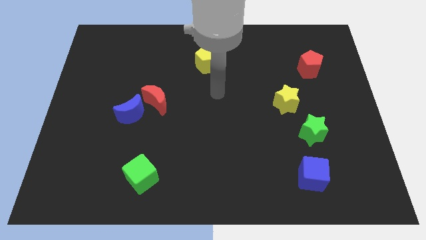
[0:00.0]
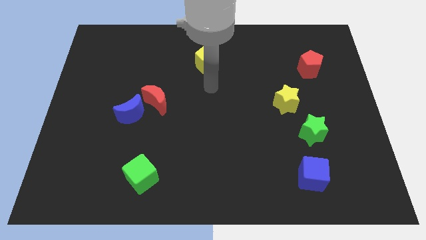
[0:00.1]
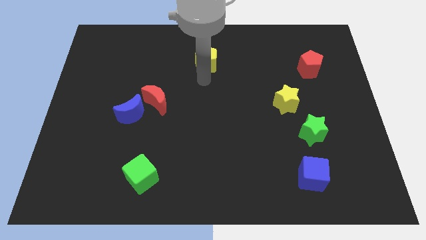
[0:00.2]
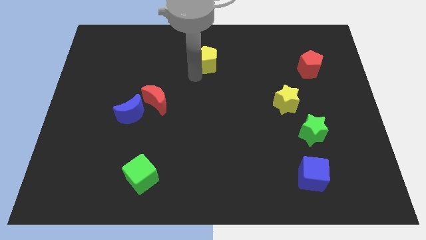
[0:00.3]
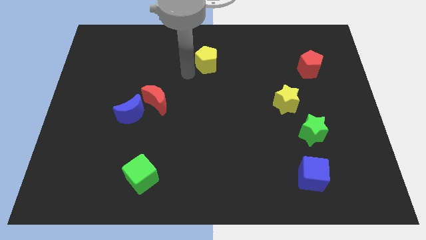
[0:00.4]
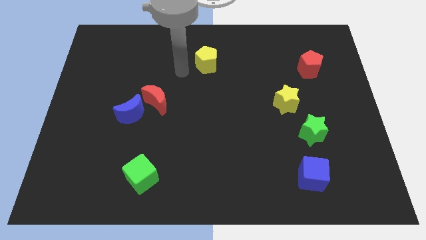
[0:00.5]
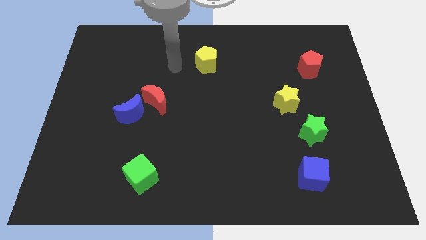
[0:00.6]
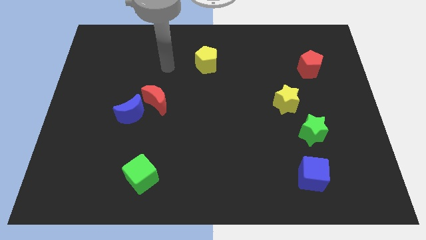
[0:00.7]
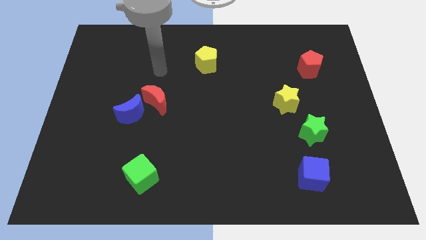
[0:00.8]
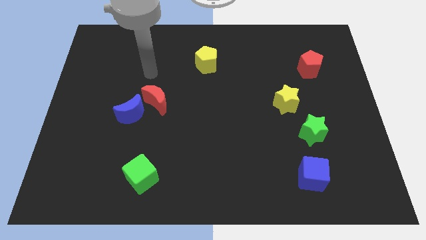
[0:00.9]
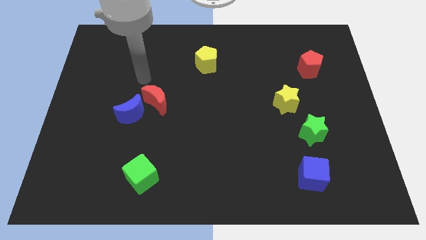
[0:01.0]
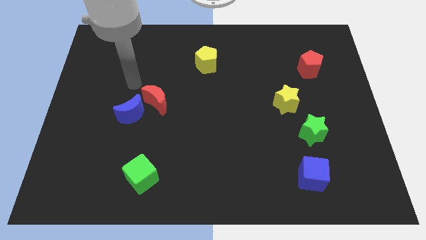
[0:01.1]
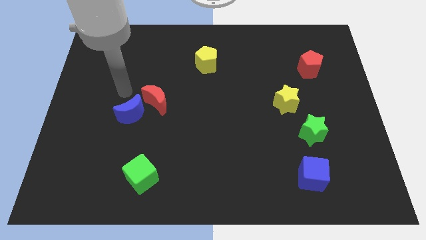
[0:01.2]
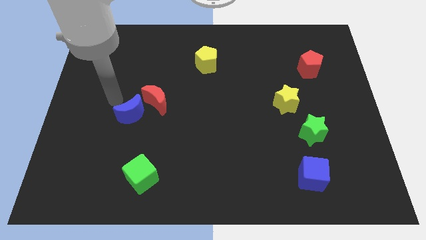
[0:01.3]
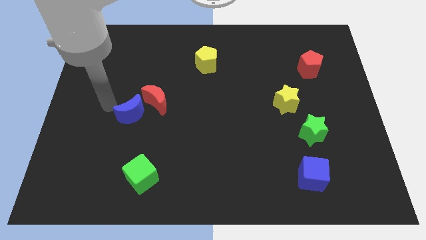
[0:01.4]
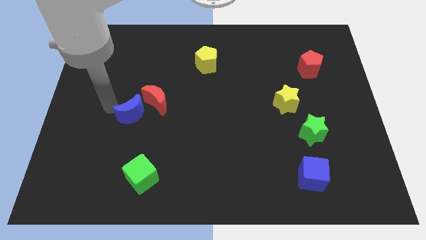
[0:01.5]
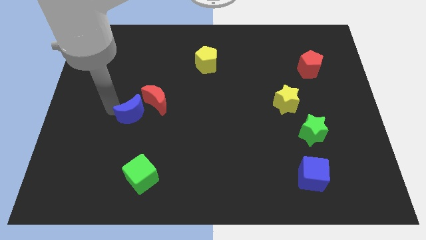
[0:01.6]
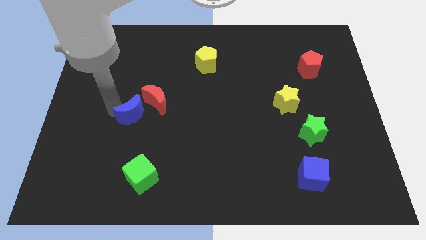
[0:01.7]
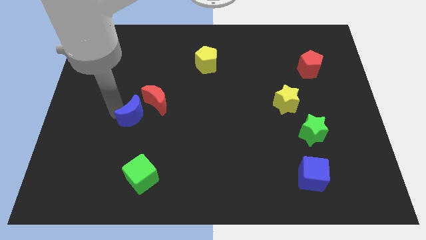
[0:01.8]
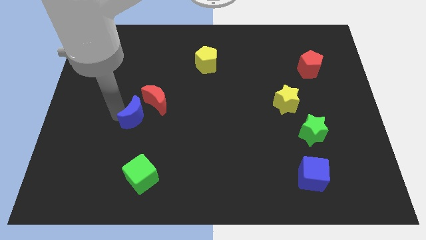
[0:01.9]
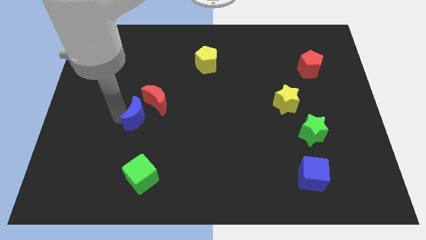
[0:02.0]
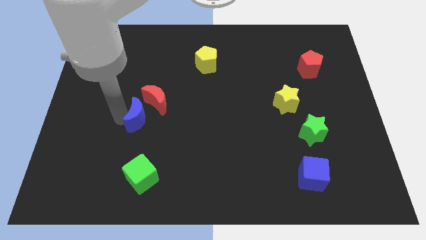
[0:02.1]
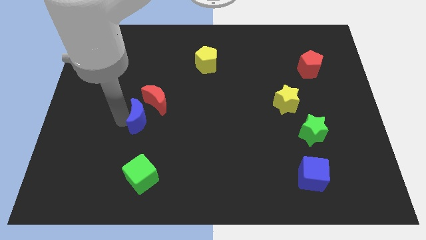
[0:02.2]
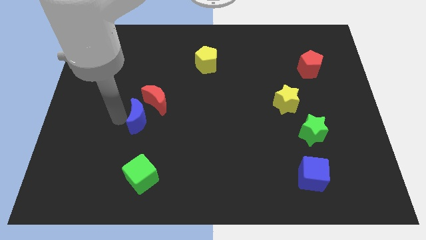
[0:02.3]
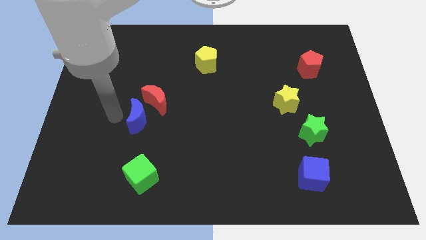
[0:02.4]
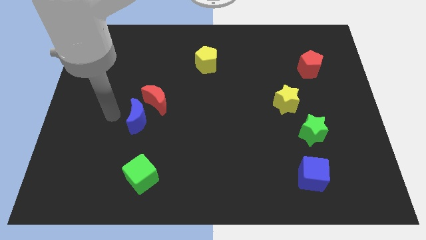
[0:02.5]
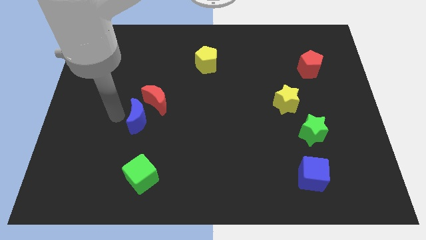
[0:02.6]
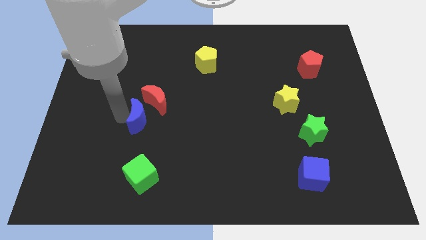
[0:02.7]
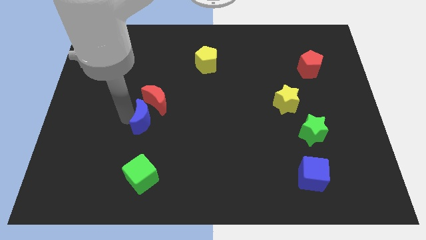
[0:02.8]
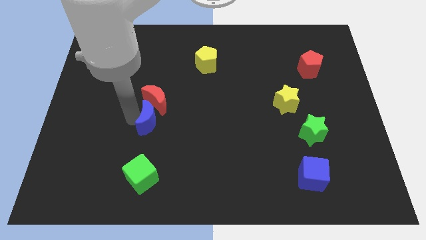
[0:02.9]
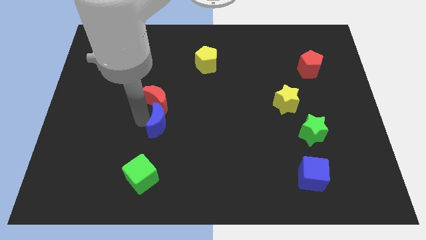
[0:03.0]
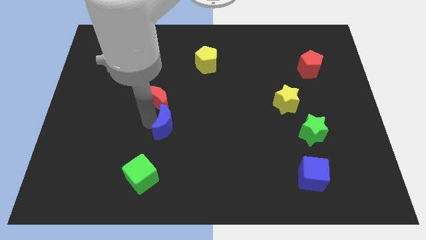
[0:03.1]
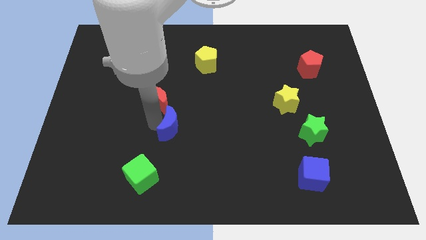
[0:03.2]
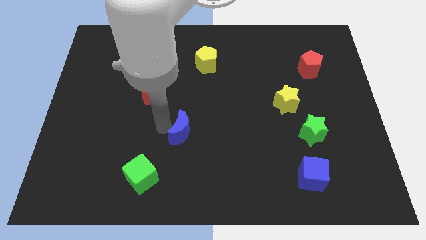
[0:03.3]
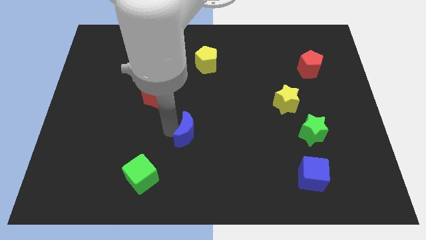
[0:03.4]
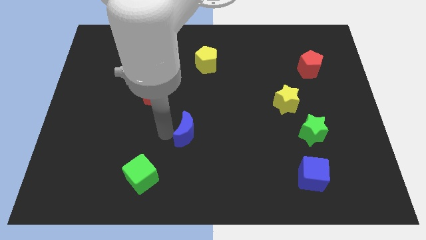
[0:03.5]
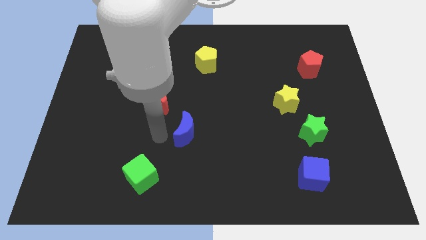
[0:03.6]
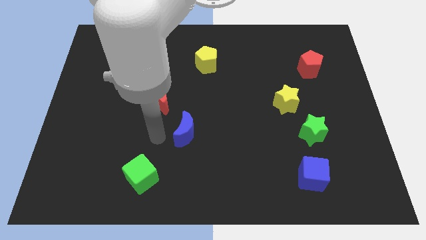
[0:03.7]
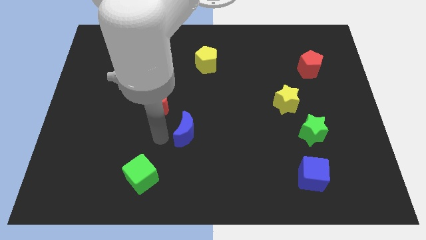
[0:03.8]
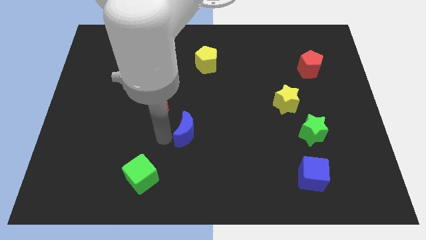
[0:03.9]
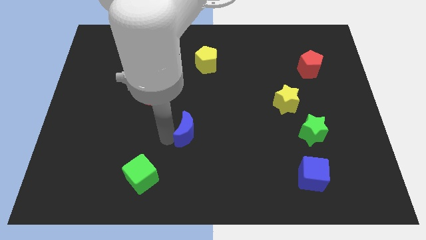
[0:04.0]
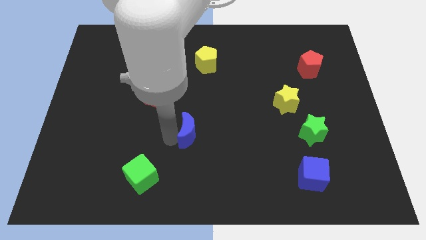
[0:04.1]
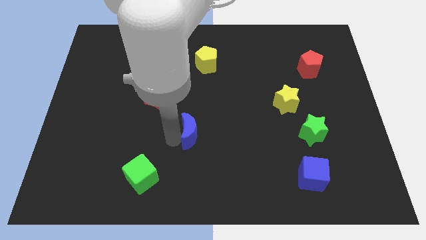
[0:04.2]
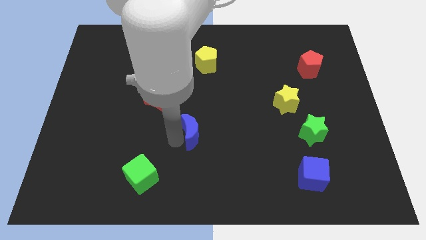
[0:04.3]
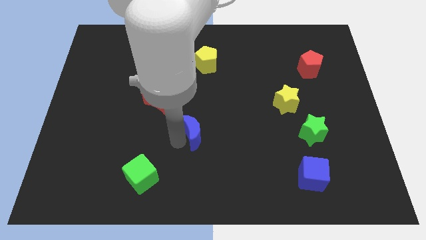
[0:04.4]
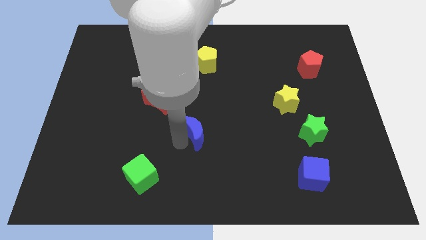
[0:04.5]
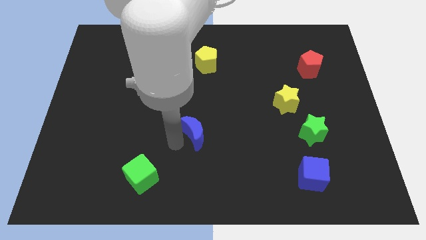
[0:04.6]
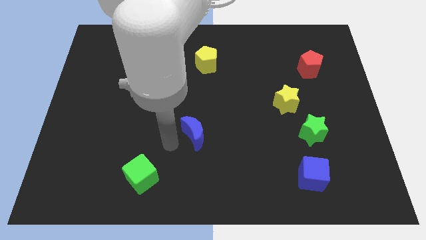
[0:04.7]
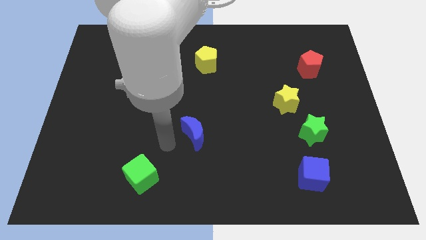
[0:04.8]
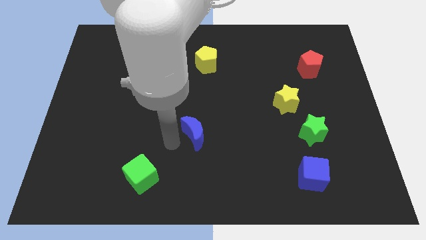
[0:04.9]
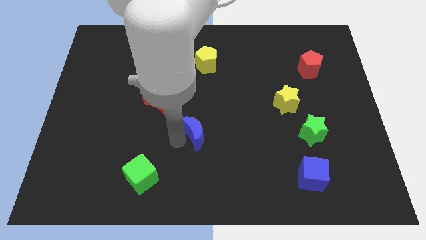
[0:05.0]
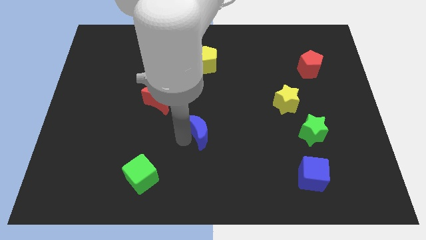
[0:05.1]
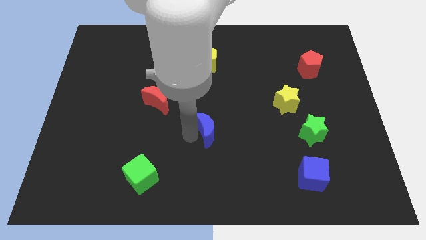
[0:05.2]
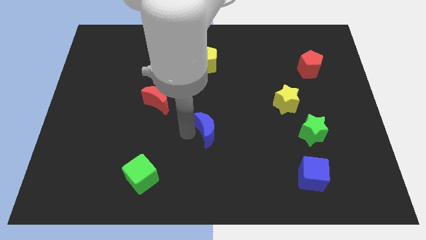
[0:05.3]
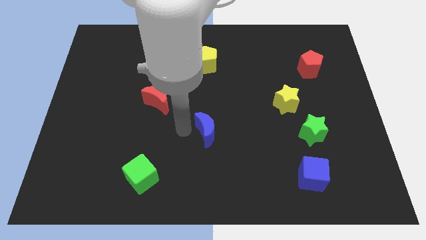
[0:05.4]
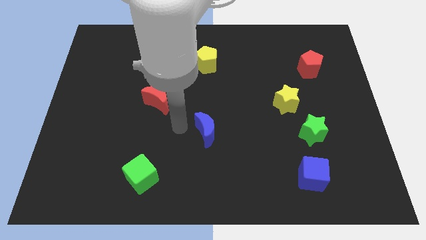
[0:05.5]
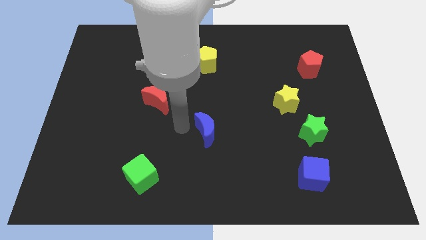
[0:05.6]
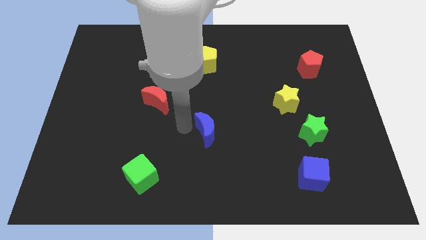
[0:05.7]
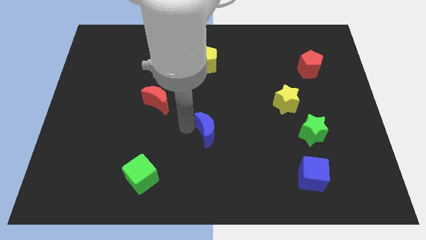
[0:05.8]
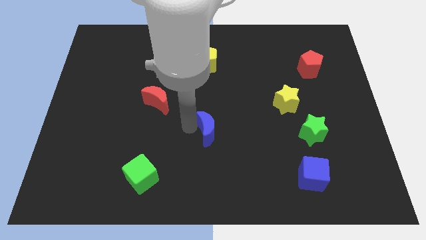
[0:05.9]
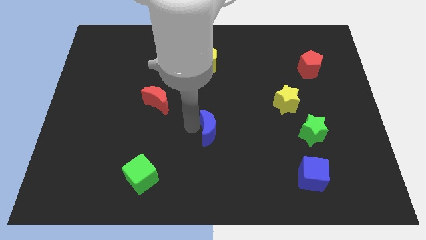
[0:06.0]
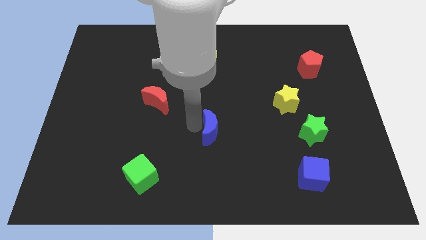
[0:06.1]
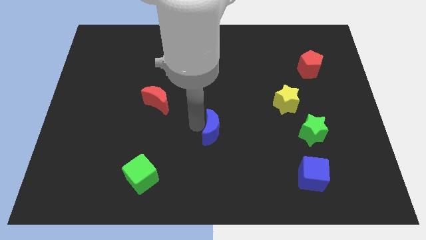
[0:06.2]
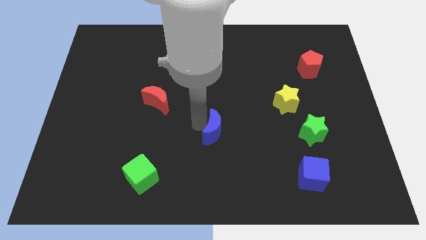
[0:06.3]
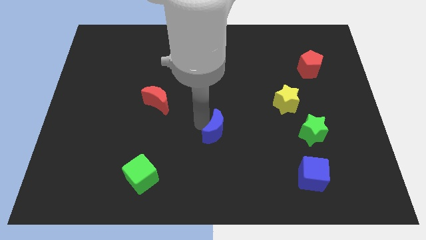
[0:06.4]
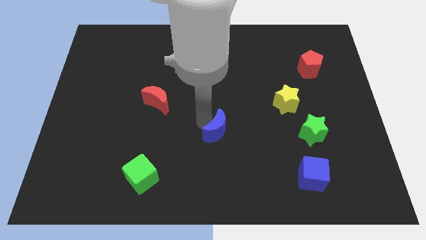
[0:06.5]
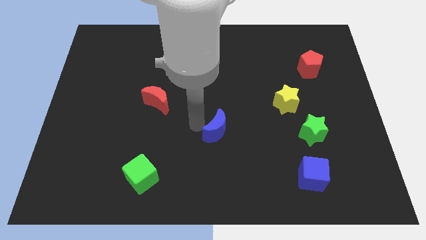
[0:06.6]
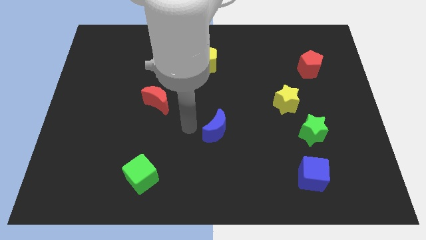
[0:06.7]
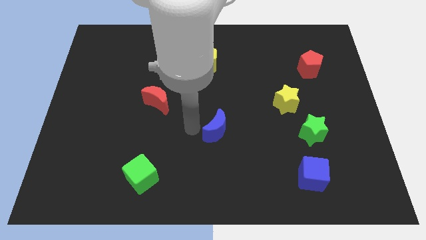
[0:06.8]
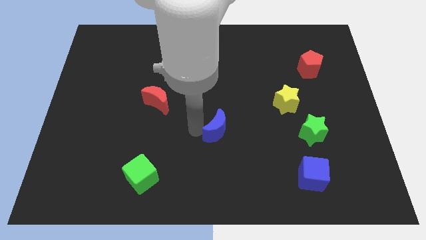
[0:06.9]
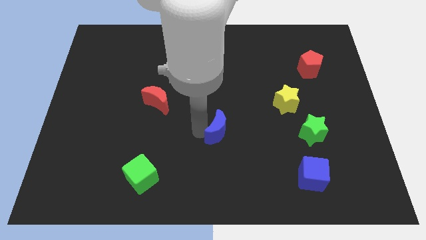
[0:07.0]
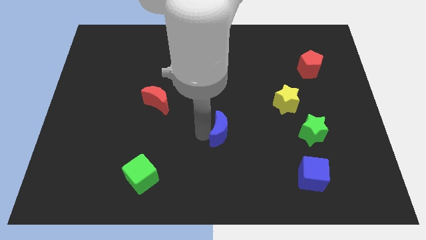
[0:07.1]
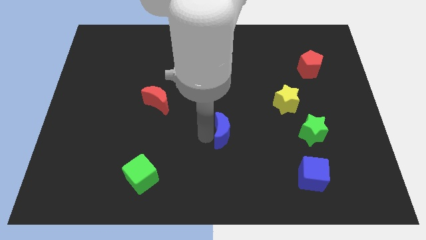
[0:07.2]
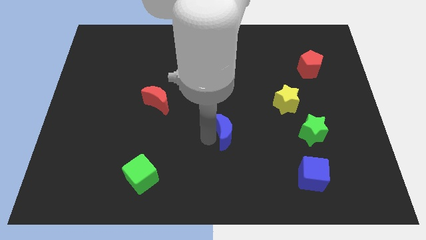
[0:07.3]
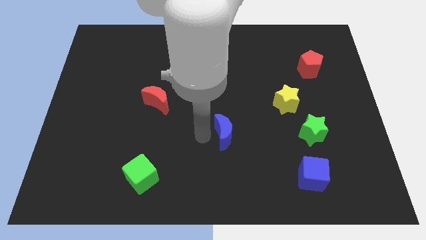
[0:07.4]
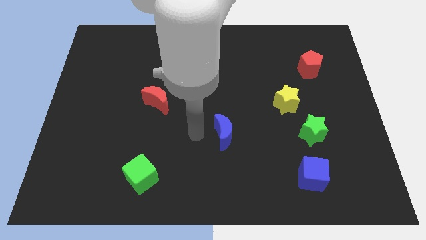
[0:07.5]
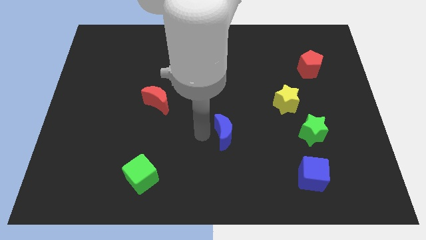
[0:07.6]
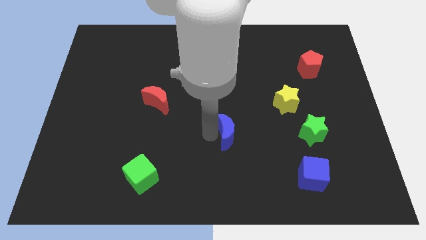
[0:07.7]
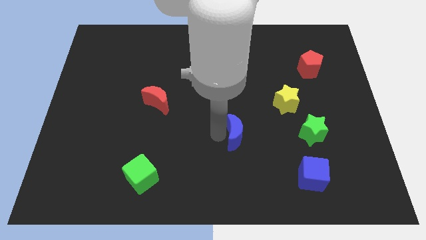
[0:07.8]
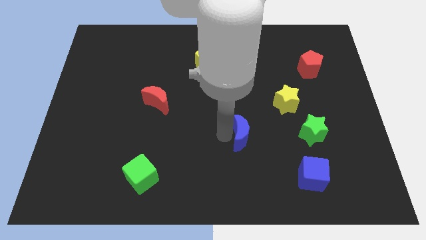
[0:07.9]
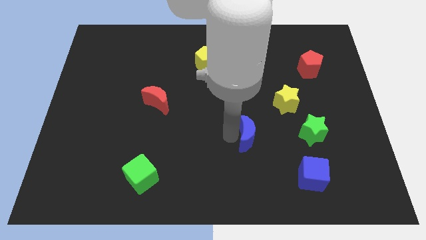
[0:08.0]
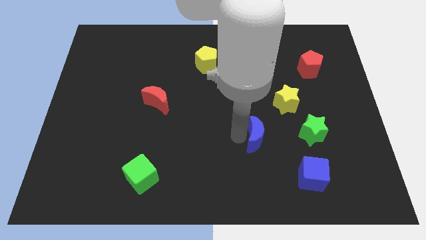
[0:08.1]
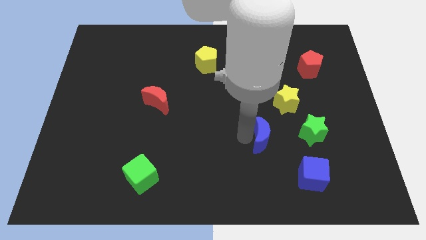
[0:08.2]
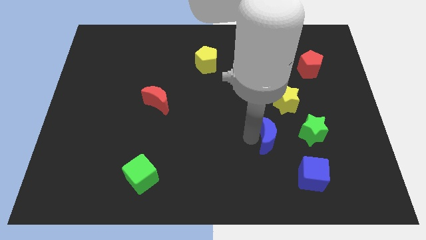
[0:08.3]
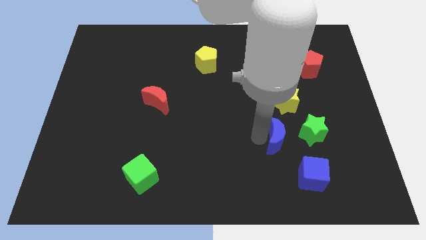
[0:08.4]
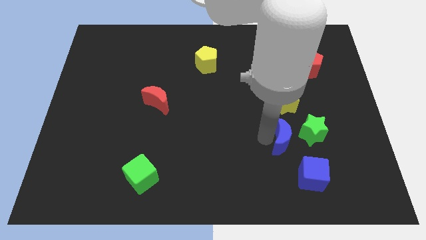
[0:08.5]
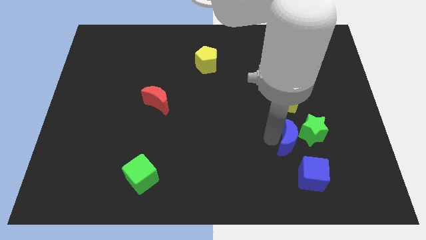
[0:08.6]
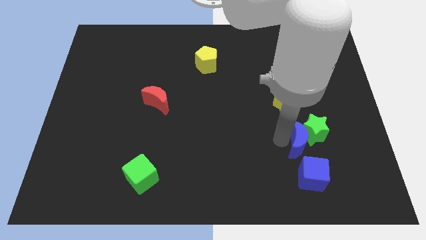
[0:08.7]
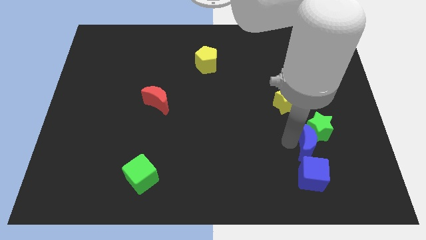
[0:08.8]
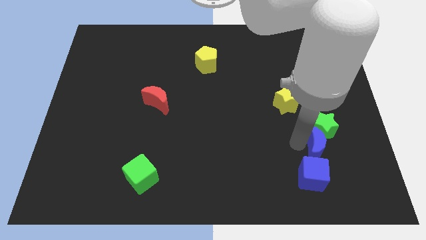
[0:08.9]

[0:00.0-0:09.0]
put the blue moon to the top right side of the blue cube
